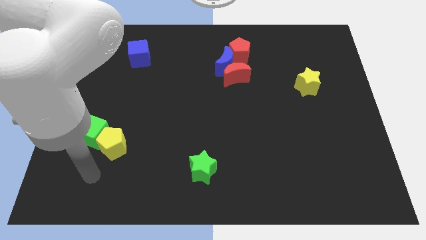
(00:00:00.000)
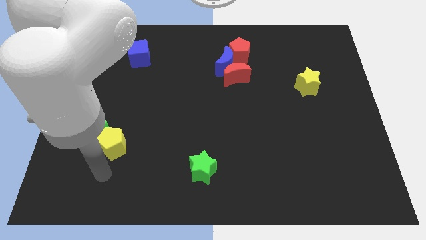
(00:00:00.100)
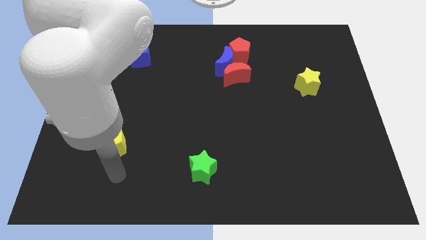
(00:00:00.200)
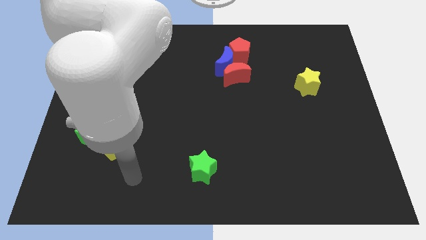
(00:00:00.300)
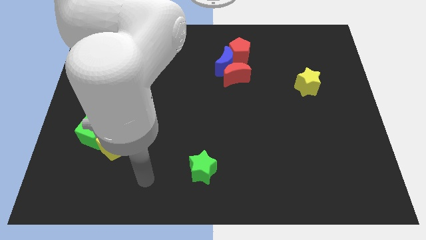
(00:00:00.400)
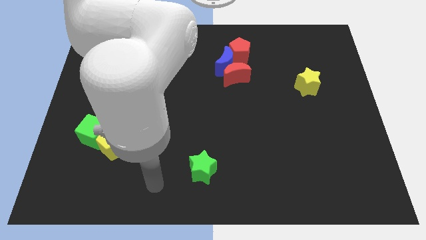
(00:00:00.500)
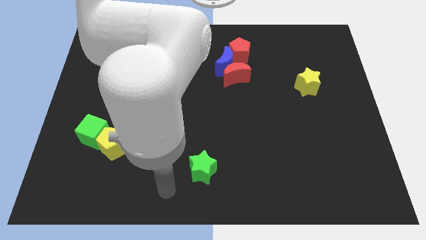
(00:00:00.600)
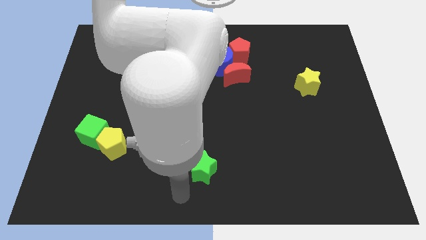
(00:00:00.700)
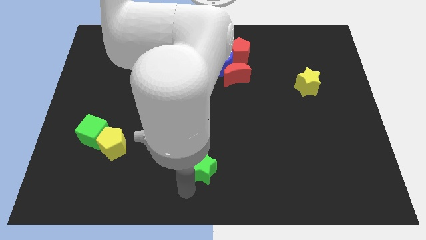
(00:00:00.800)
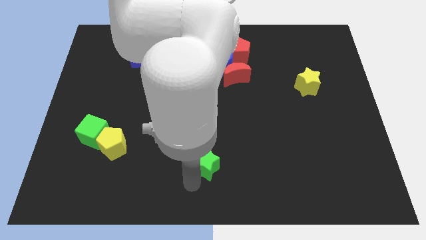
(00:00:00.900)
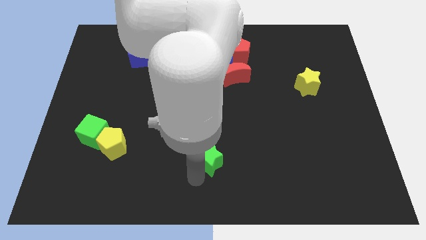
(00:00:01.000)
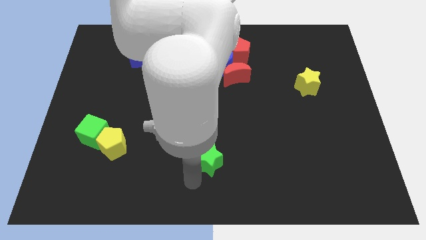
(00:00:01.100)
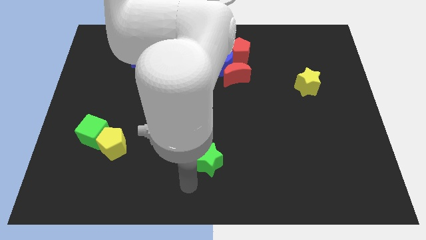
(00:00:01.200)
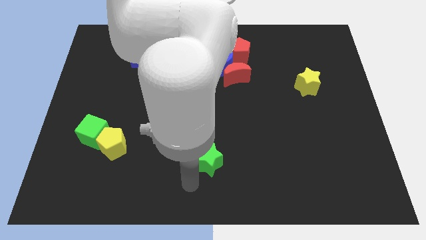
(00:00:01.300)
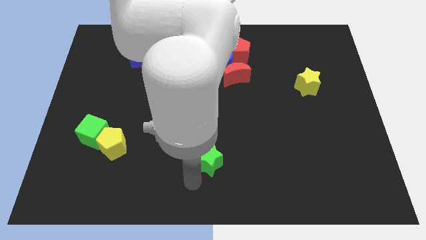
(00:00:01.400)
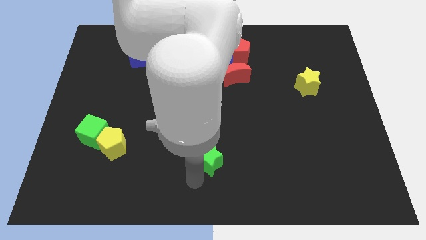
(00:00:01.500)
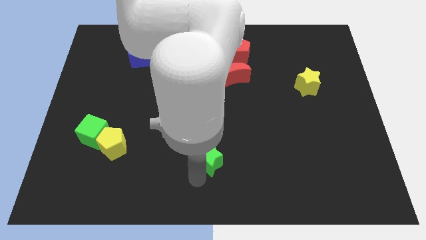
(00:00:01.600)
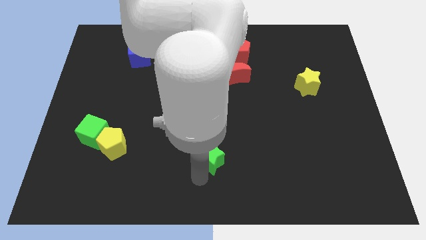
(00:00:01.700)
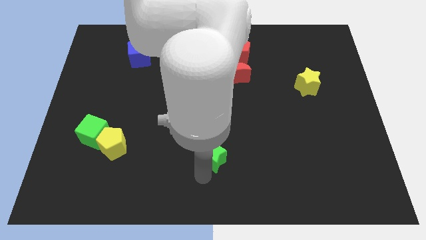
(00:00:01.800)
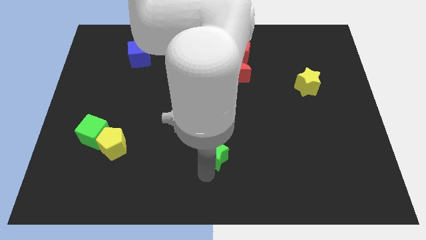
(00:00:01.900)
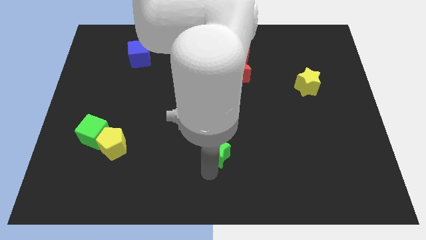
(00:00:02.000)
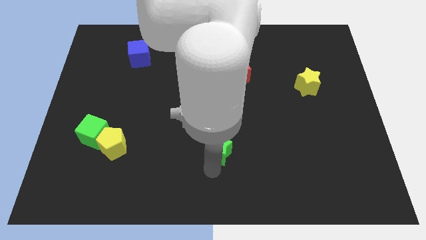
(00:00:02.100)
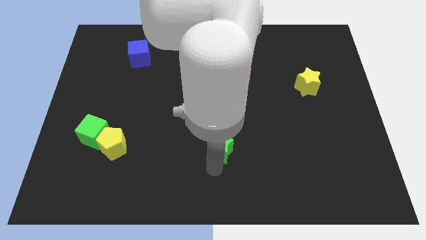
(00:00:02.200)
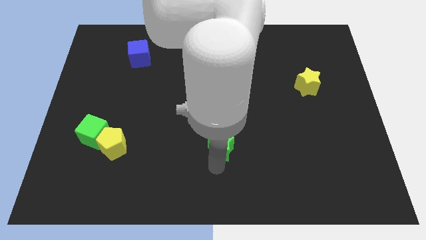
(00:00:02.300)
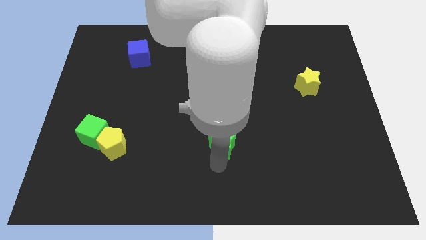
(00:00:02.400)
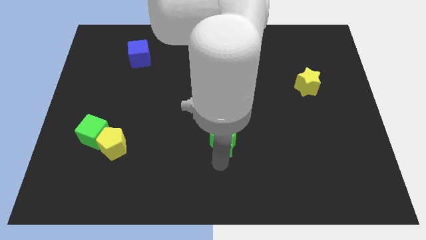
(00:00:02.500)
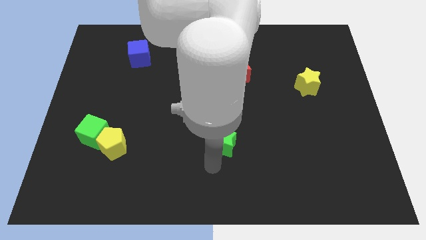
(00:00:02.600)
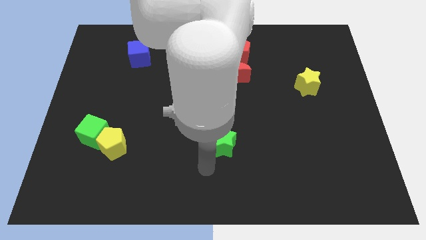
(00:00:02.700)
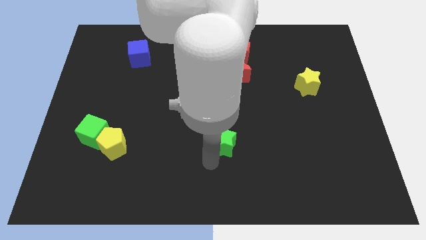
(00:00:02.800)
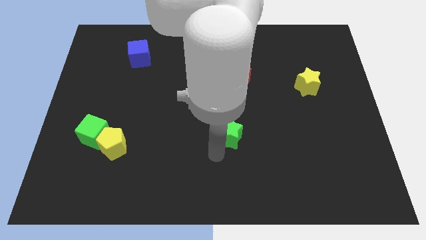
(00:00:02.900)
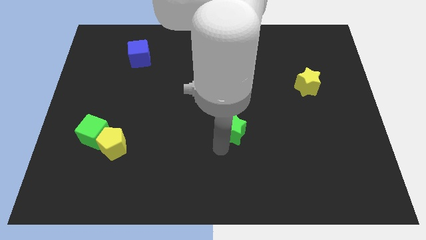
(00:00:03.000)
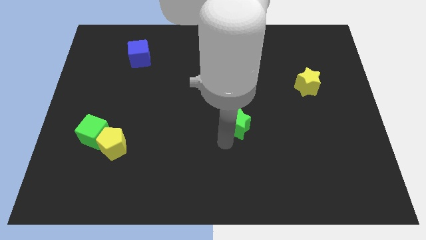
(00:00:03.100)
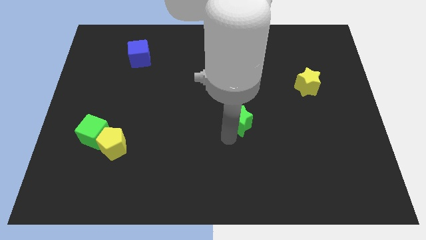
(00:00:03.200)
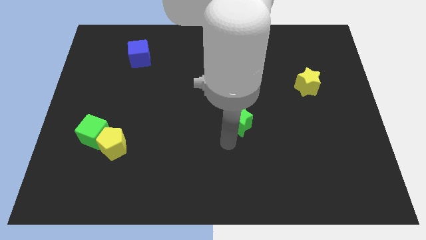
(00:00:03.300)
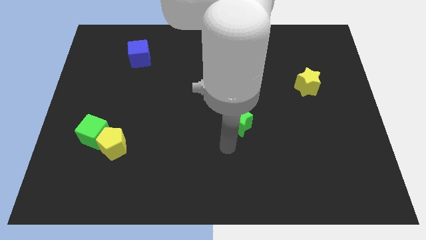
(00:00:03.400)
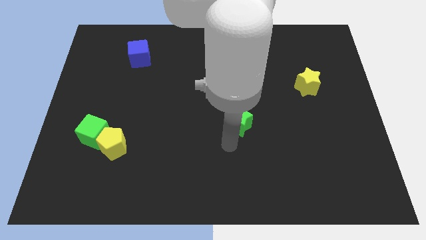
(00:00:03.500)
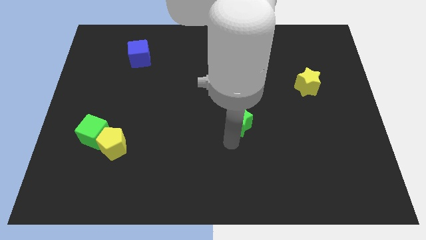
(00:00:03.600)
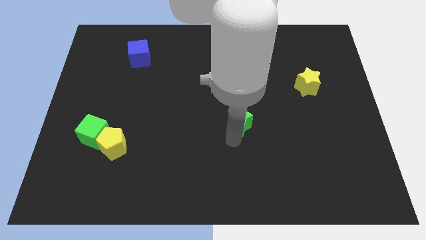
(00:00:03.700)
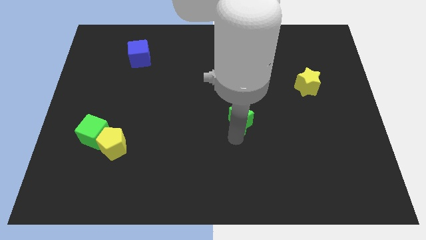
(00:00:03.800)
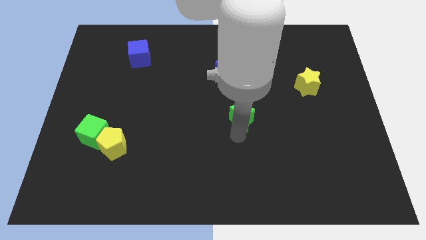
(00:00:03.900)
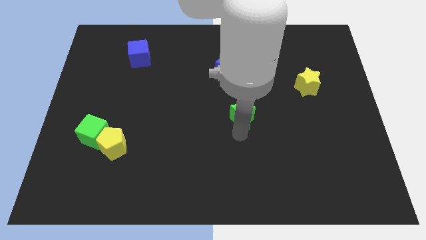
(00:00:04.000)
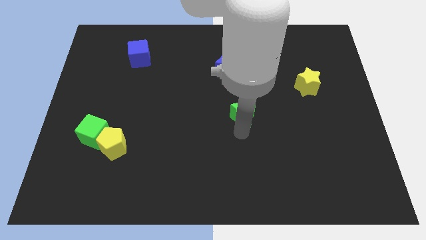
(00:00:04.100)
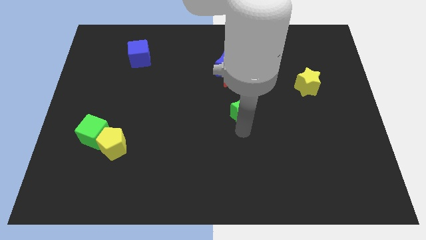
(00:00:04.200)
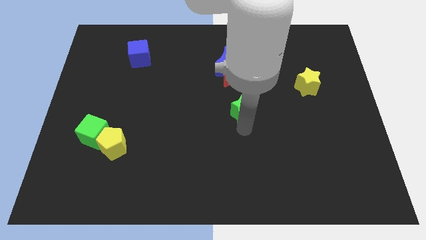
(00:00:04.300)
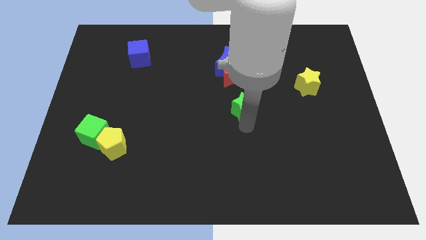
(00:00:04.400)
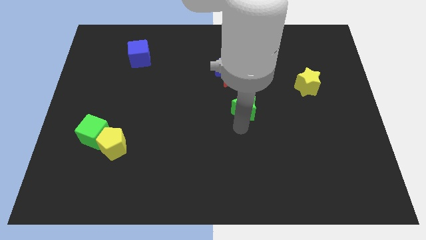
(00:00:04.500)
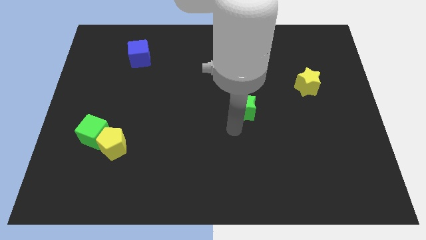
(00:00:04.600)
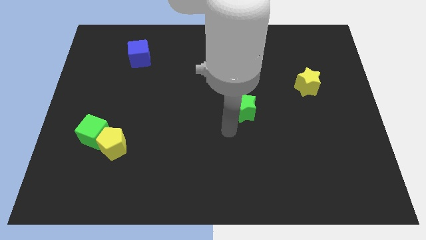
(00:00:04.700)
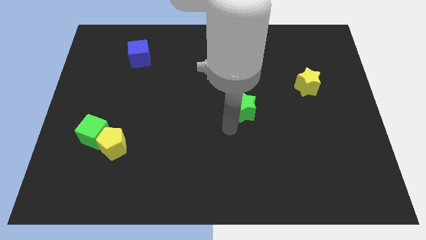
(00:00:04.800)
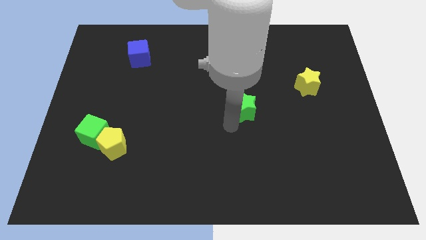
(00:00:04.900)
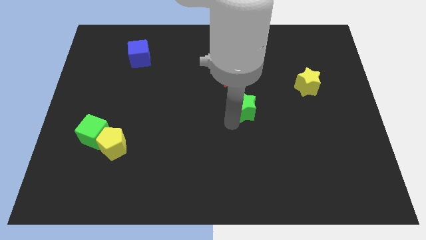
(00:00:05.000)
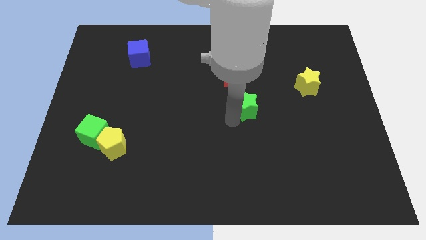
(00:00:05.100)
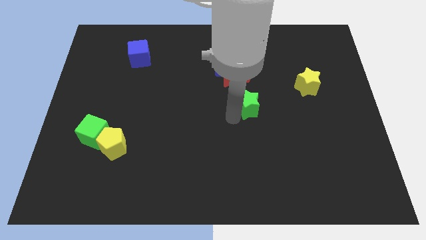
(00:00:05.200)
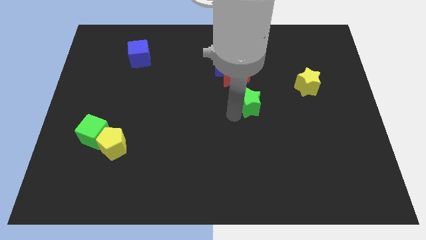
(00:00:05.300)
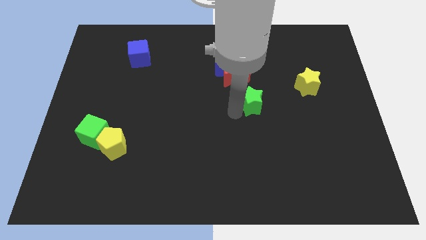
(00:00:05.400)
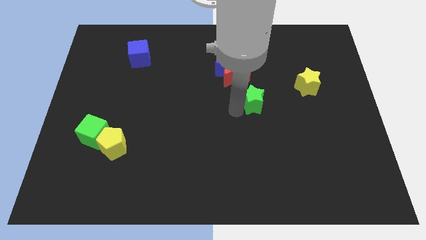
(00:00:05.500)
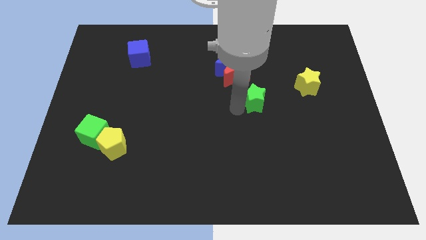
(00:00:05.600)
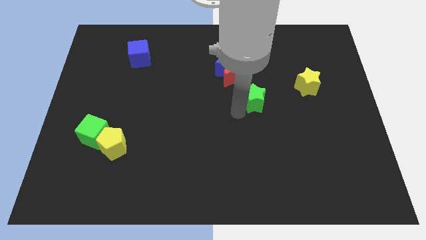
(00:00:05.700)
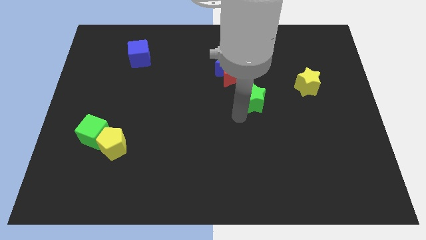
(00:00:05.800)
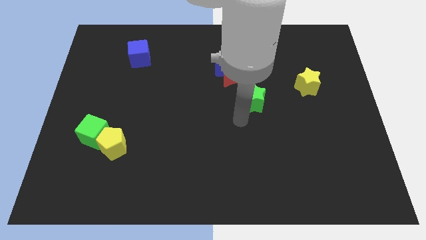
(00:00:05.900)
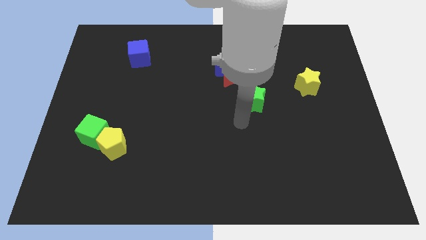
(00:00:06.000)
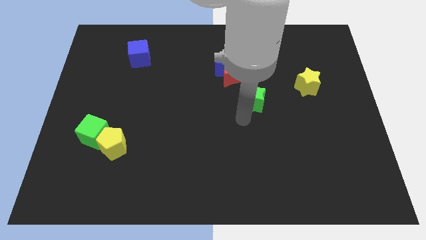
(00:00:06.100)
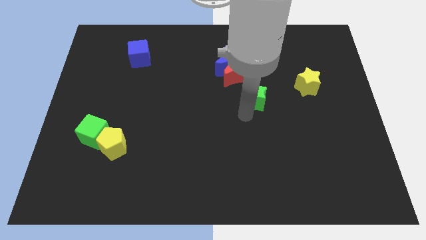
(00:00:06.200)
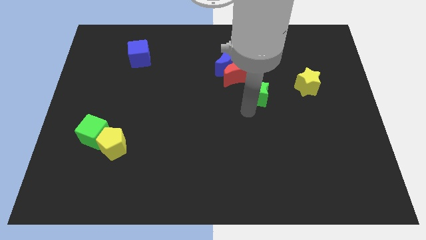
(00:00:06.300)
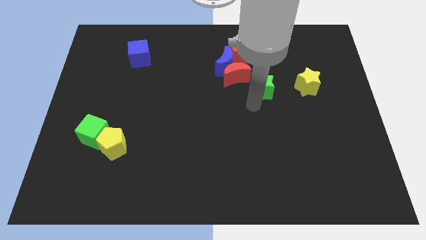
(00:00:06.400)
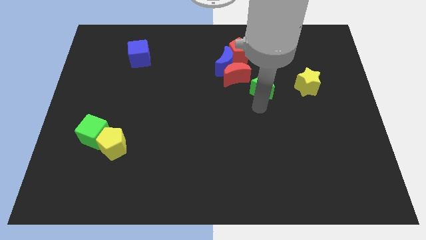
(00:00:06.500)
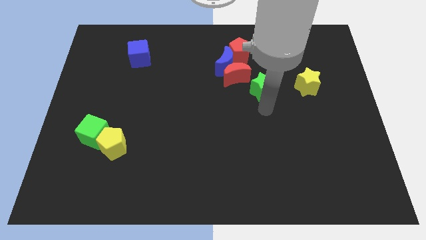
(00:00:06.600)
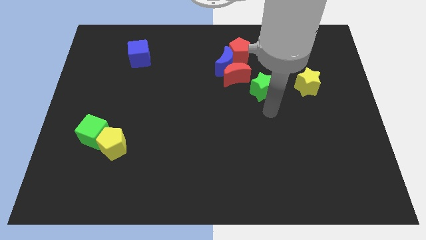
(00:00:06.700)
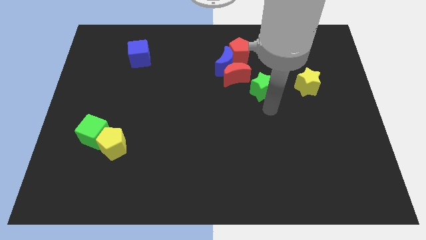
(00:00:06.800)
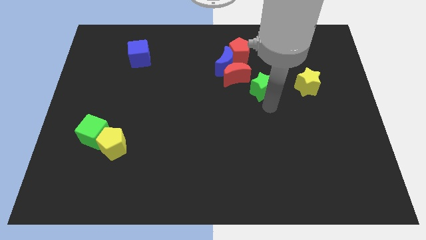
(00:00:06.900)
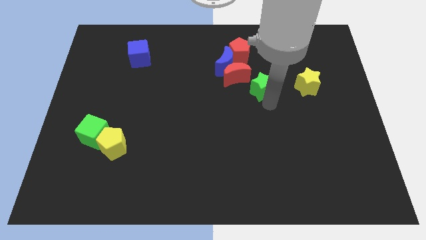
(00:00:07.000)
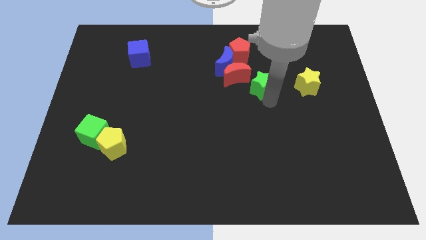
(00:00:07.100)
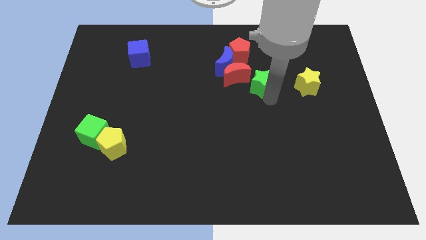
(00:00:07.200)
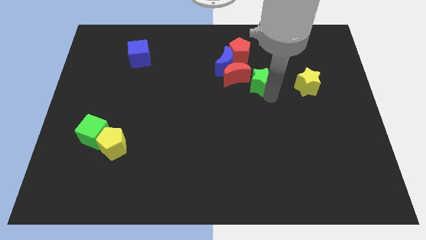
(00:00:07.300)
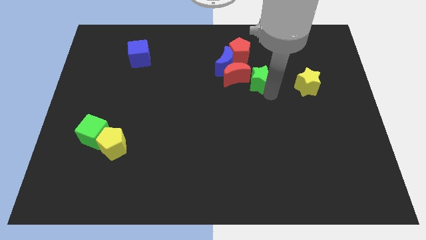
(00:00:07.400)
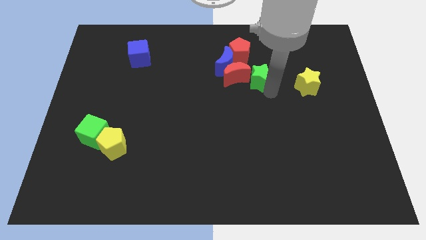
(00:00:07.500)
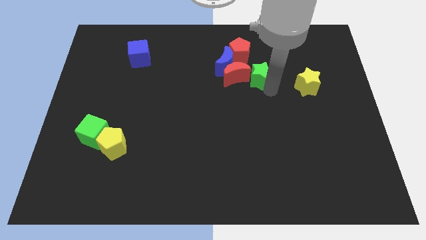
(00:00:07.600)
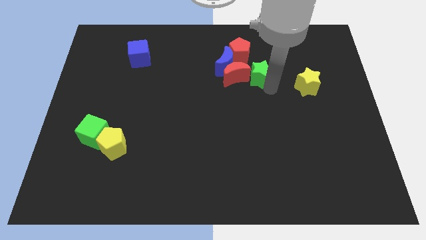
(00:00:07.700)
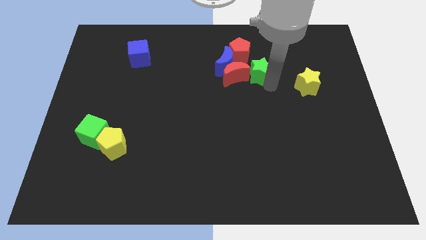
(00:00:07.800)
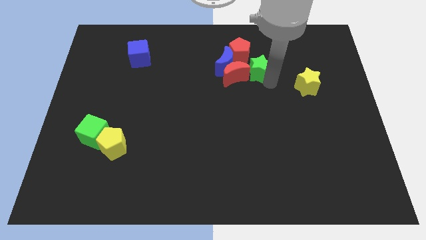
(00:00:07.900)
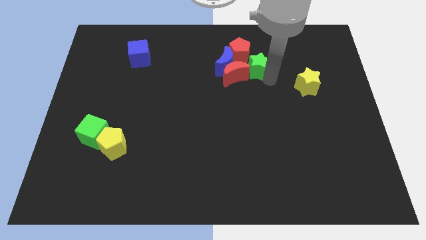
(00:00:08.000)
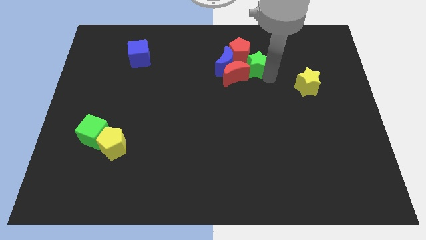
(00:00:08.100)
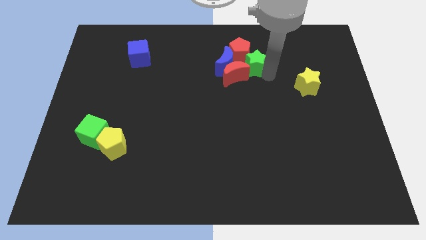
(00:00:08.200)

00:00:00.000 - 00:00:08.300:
slide the green star next to the red pentagon
